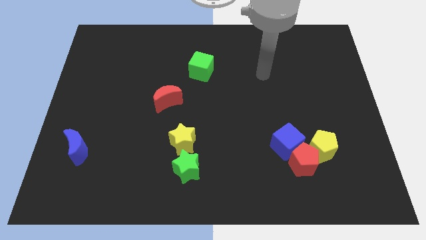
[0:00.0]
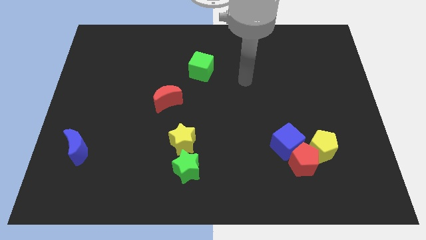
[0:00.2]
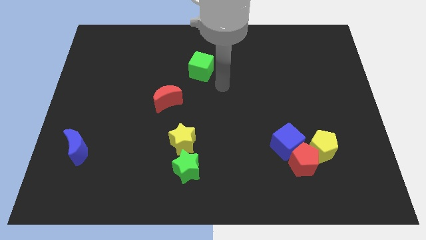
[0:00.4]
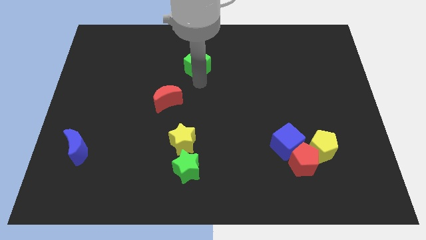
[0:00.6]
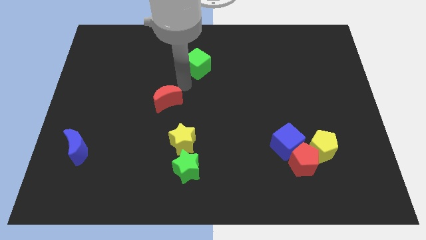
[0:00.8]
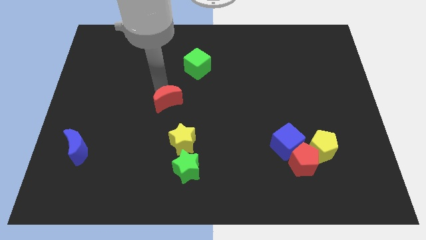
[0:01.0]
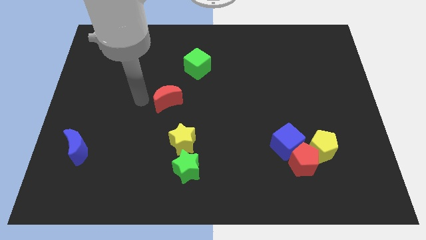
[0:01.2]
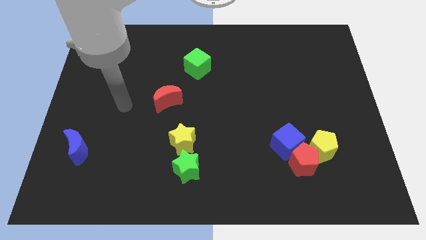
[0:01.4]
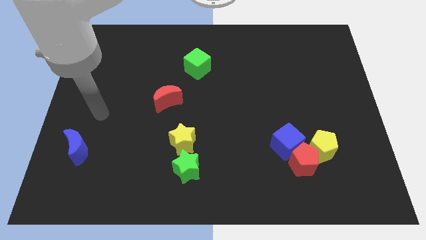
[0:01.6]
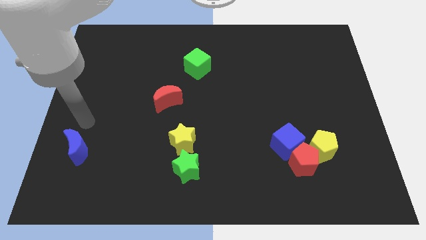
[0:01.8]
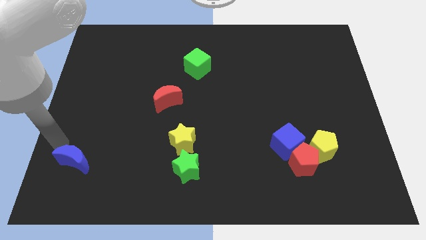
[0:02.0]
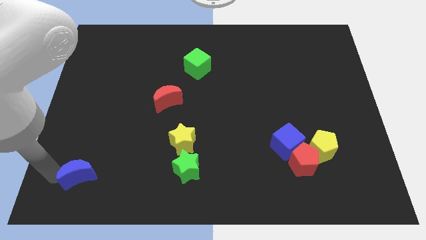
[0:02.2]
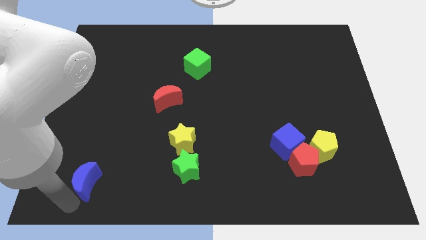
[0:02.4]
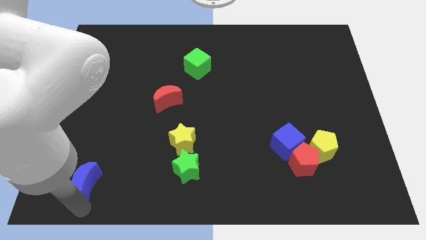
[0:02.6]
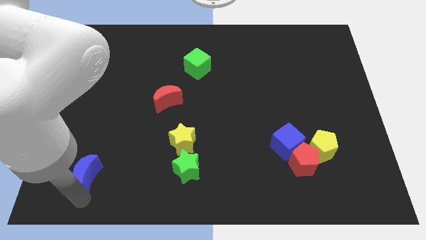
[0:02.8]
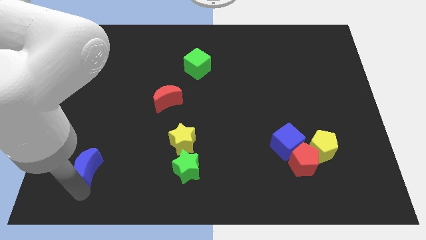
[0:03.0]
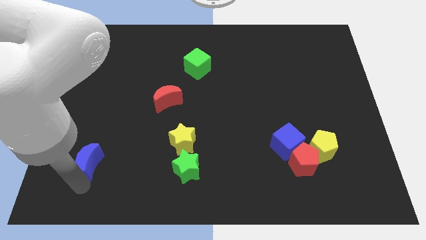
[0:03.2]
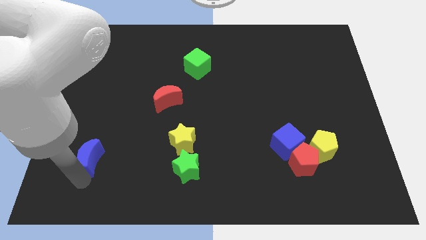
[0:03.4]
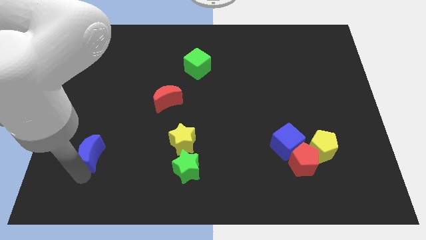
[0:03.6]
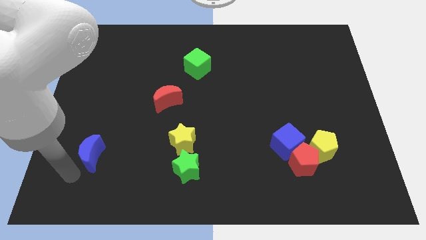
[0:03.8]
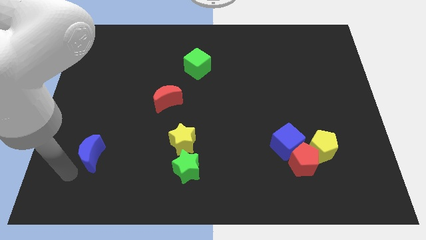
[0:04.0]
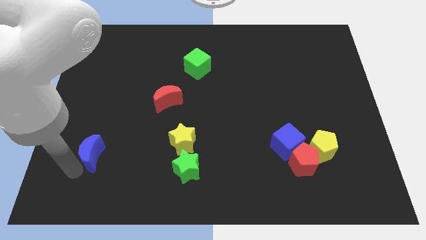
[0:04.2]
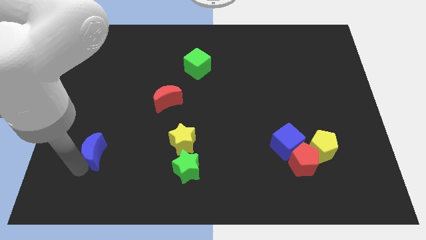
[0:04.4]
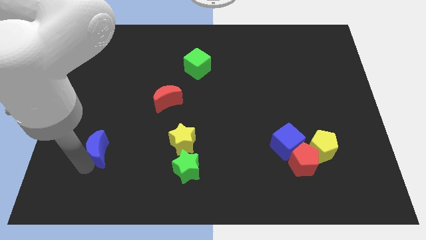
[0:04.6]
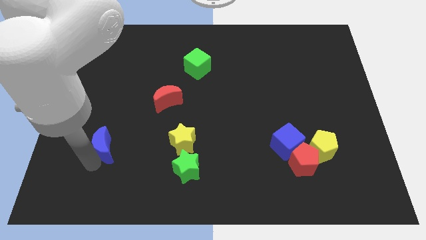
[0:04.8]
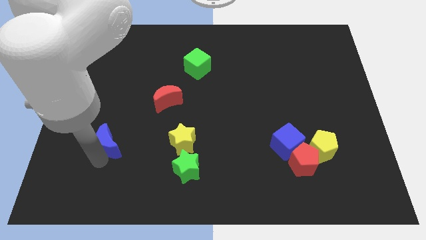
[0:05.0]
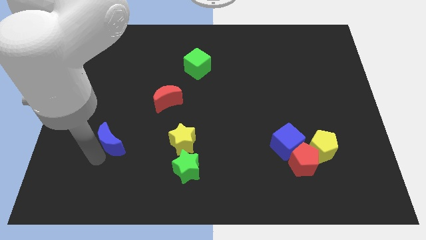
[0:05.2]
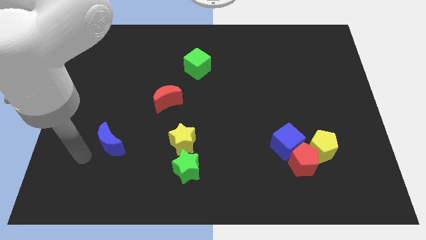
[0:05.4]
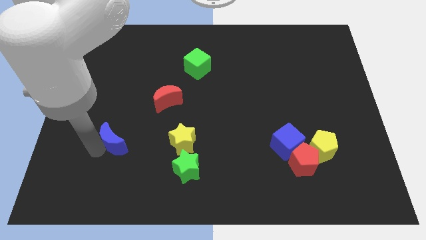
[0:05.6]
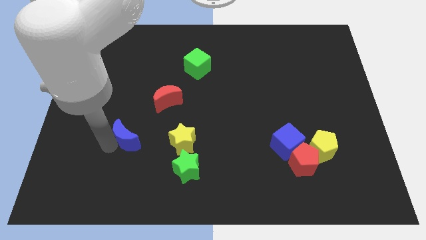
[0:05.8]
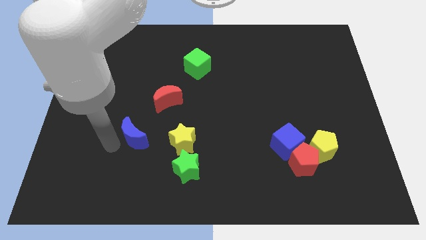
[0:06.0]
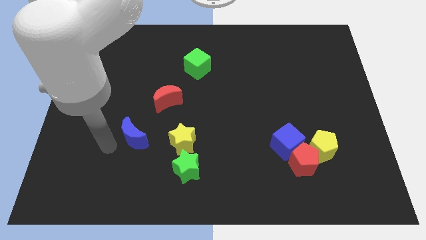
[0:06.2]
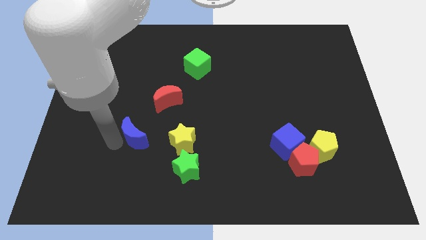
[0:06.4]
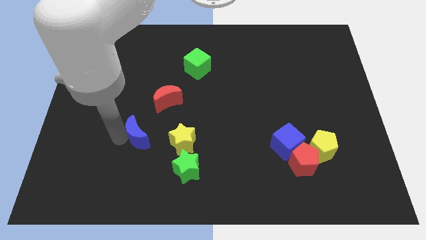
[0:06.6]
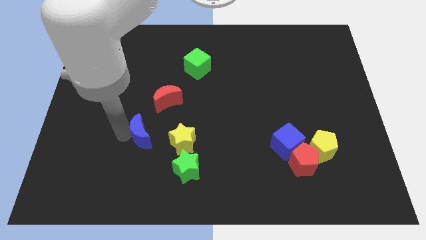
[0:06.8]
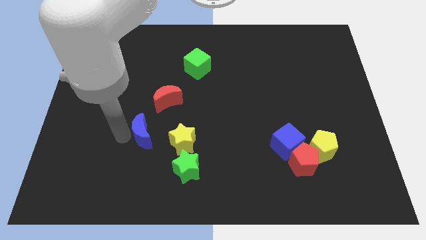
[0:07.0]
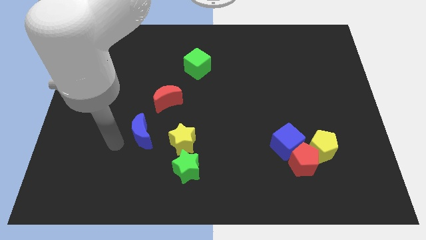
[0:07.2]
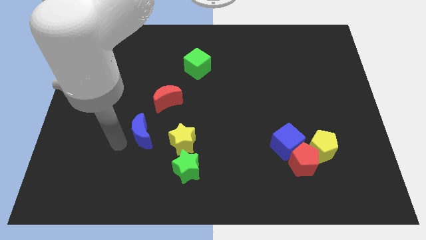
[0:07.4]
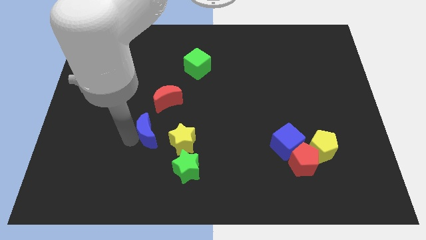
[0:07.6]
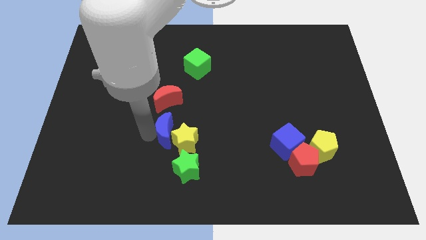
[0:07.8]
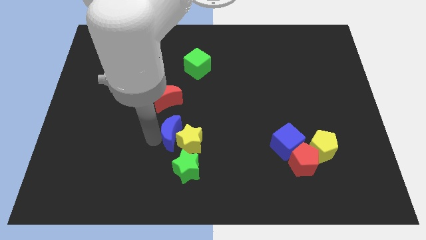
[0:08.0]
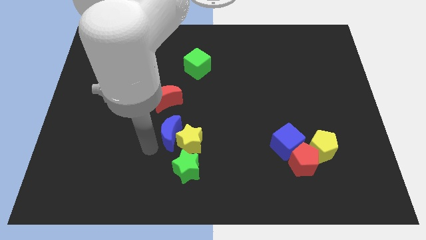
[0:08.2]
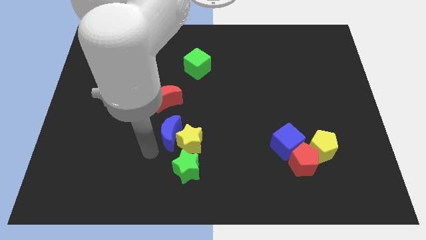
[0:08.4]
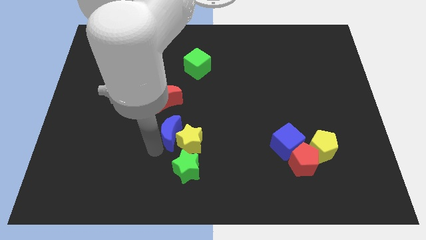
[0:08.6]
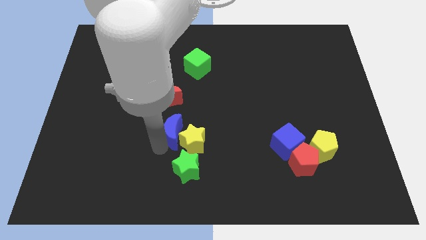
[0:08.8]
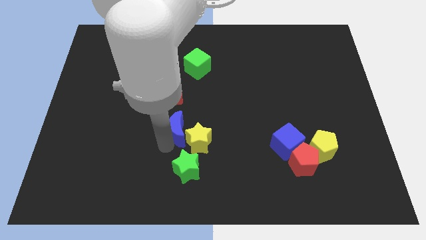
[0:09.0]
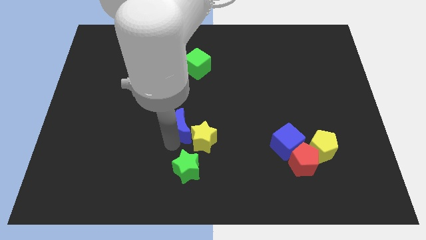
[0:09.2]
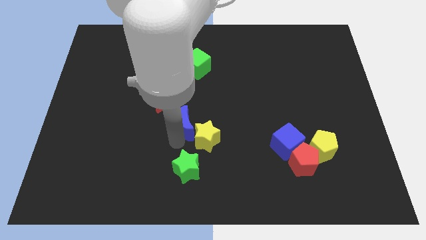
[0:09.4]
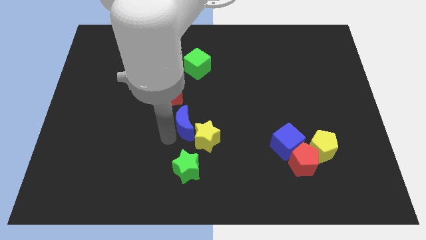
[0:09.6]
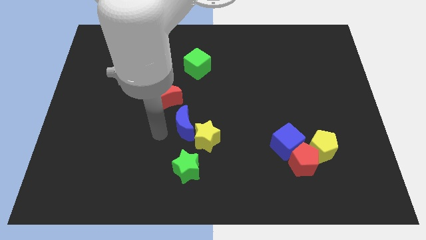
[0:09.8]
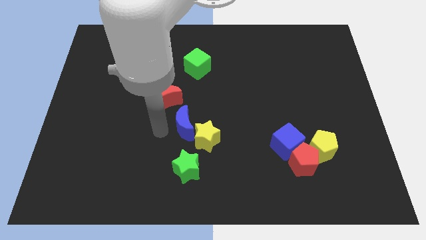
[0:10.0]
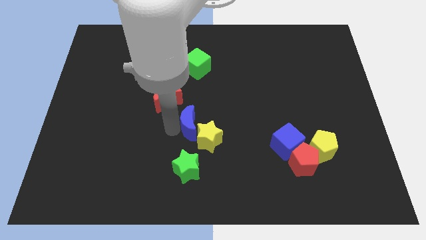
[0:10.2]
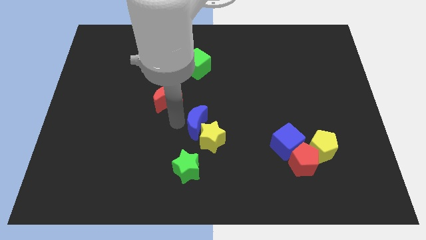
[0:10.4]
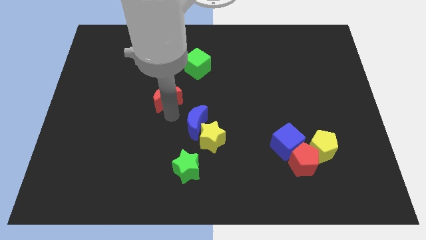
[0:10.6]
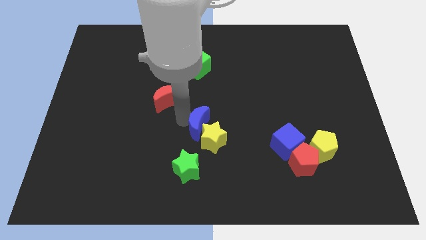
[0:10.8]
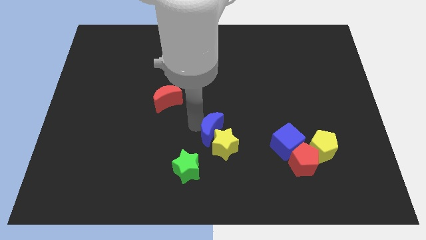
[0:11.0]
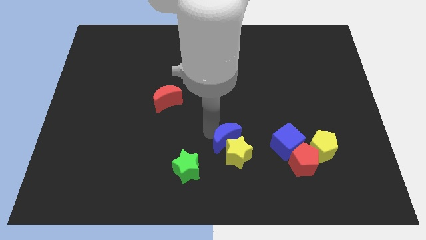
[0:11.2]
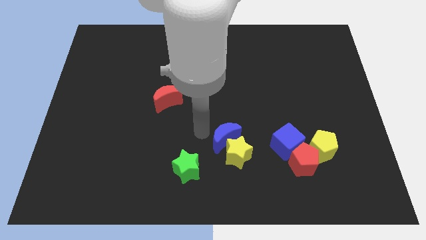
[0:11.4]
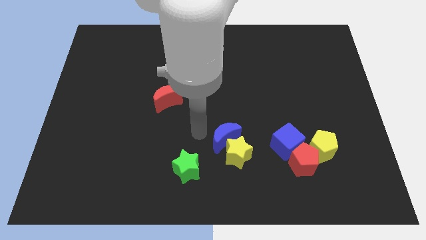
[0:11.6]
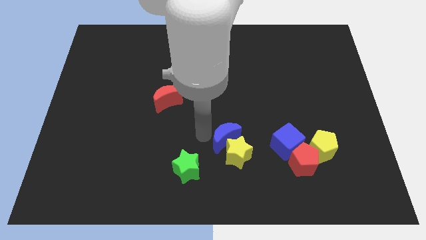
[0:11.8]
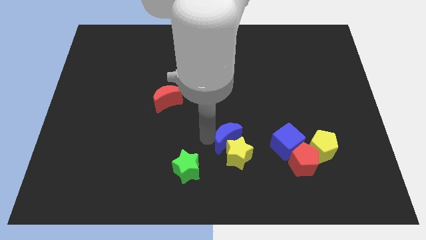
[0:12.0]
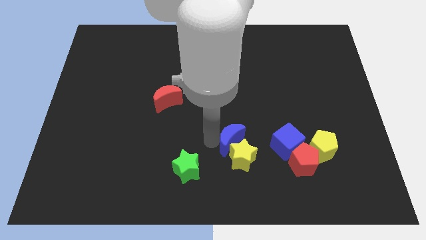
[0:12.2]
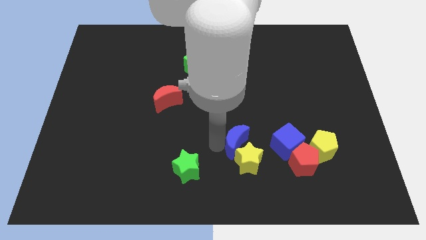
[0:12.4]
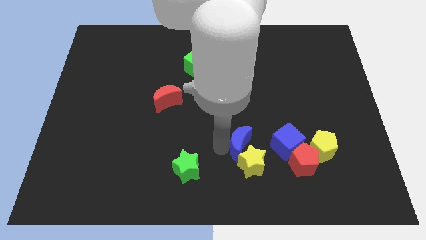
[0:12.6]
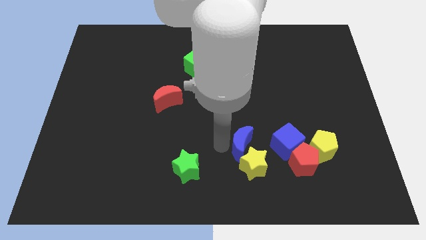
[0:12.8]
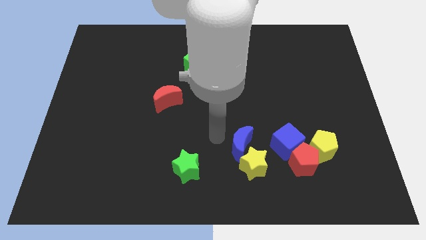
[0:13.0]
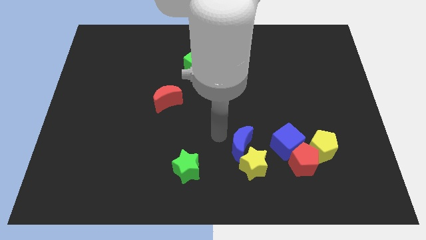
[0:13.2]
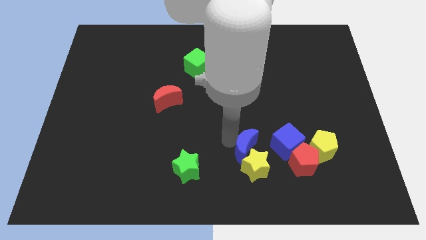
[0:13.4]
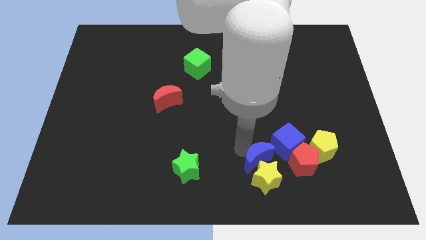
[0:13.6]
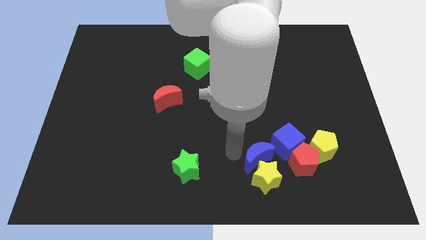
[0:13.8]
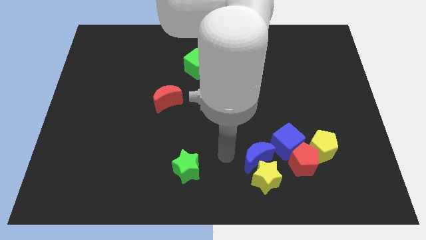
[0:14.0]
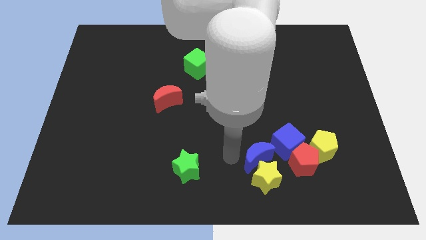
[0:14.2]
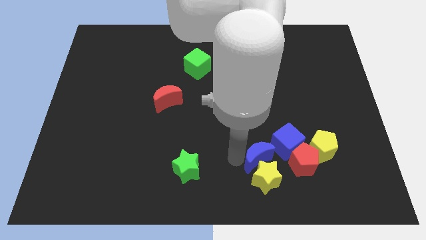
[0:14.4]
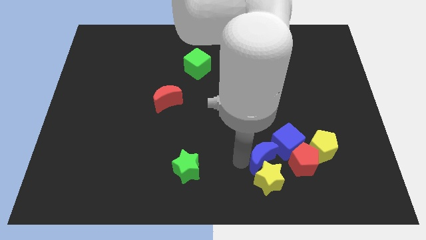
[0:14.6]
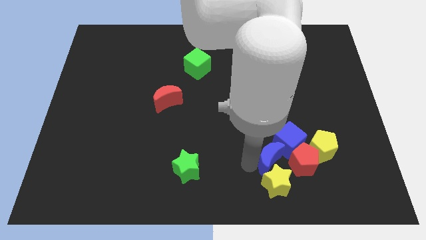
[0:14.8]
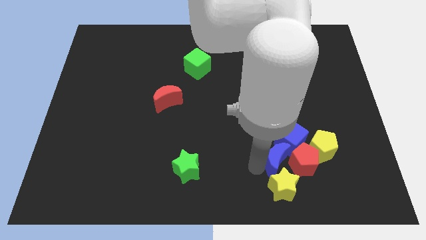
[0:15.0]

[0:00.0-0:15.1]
push the blue moon next to the red pentagon
